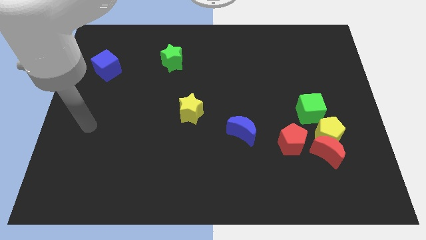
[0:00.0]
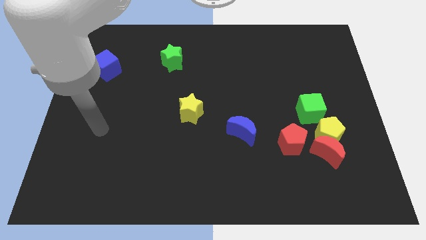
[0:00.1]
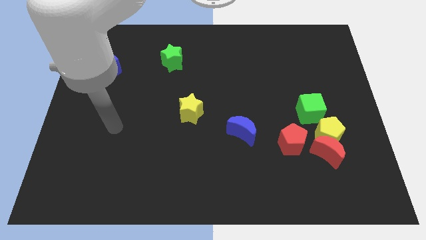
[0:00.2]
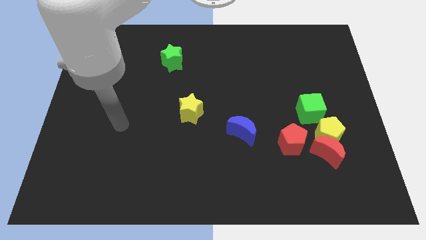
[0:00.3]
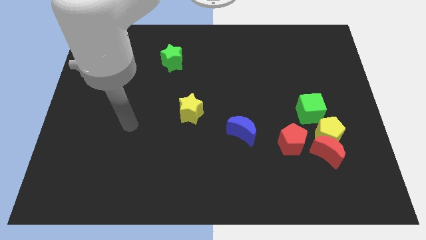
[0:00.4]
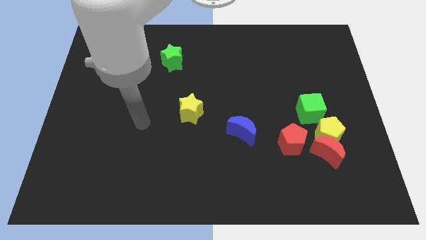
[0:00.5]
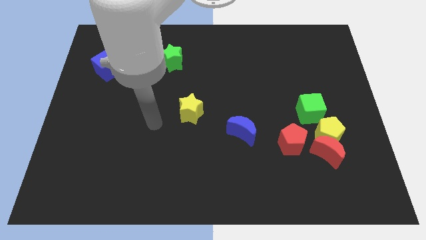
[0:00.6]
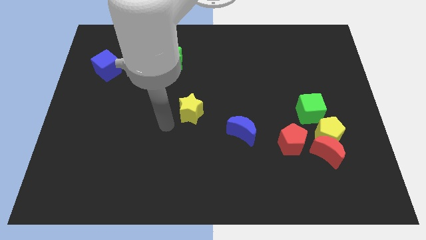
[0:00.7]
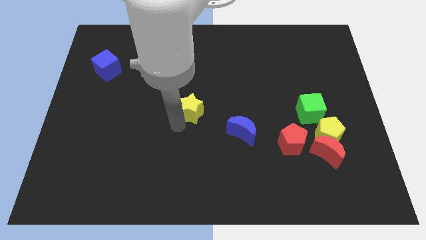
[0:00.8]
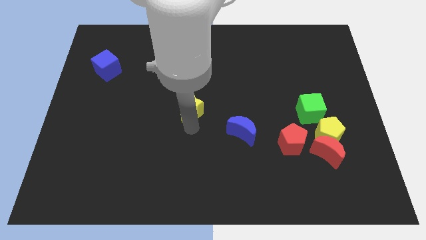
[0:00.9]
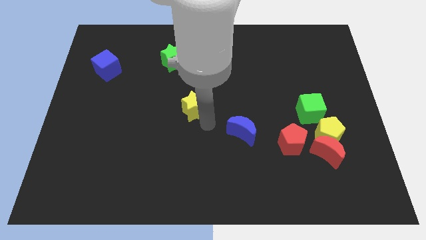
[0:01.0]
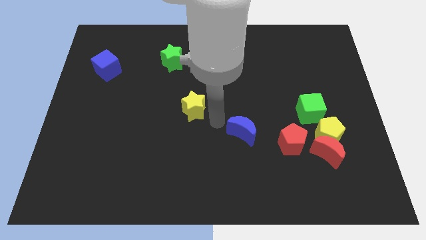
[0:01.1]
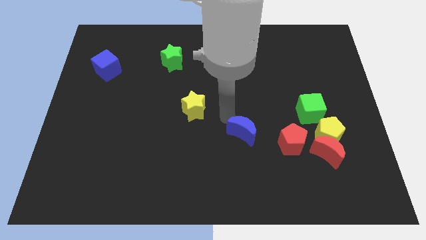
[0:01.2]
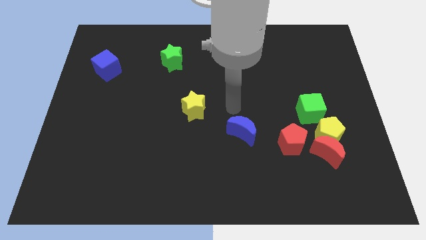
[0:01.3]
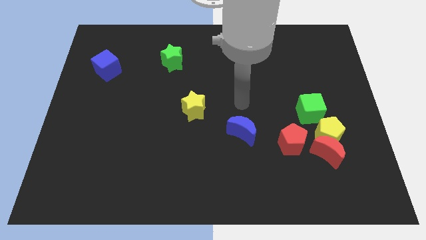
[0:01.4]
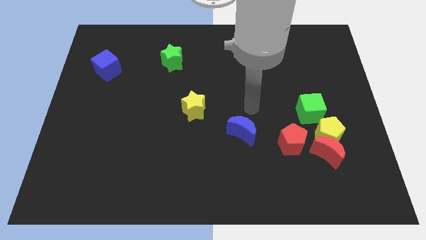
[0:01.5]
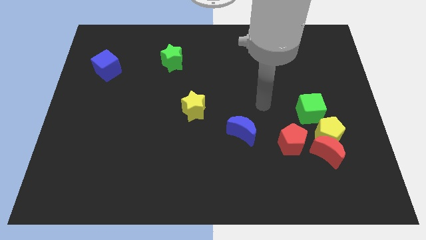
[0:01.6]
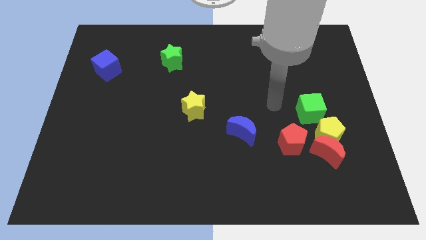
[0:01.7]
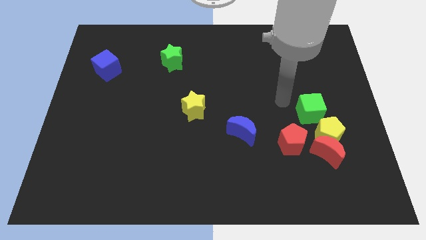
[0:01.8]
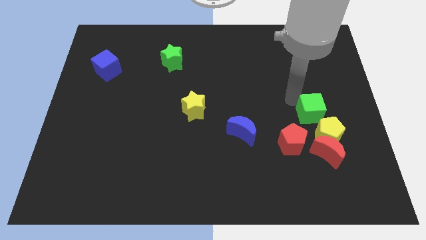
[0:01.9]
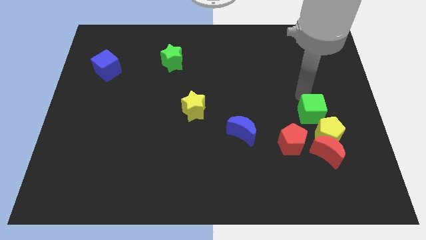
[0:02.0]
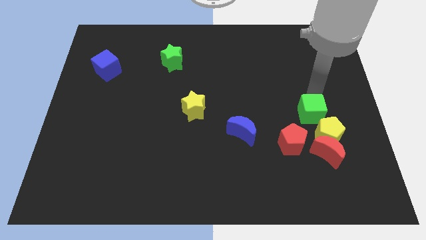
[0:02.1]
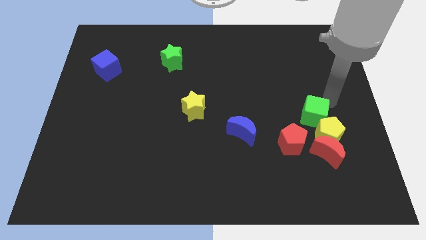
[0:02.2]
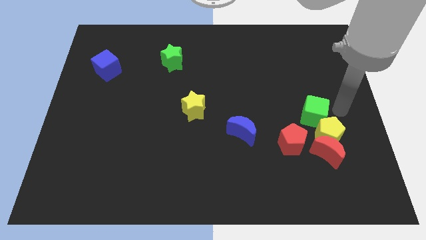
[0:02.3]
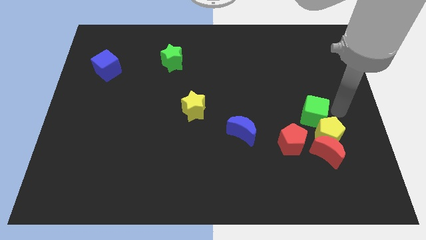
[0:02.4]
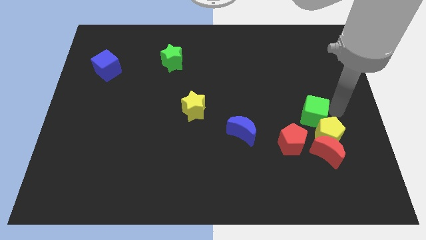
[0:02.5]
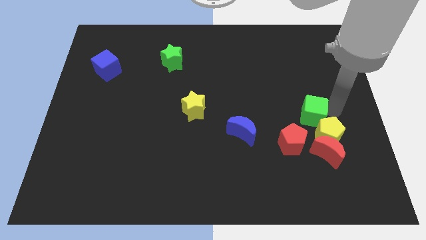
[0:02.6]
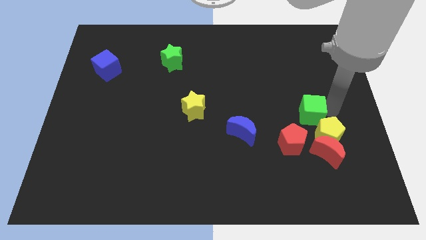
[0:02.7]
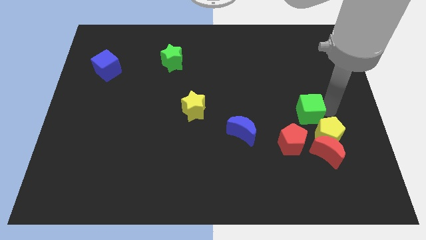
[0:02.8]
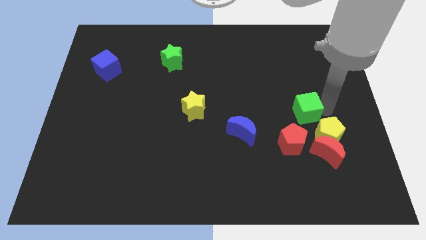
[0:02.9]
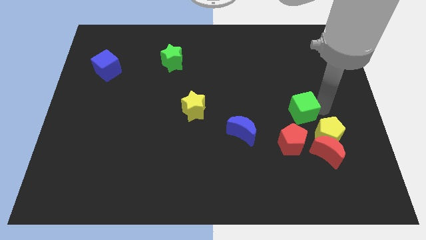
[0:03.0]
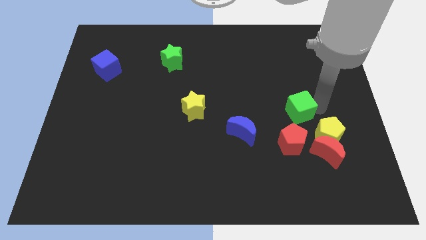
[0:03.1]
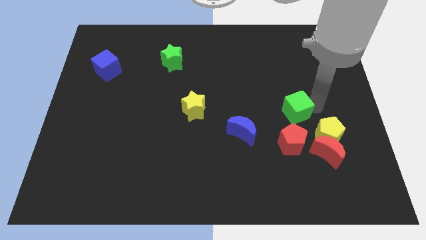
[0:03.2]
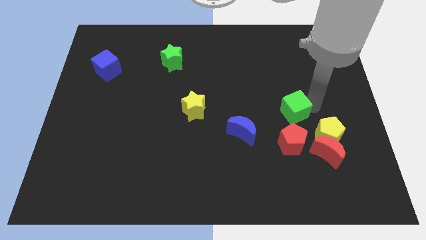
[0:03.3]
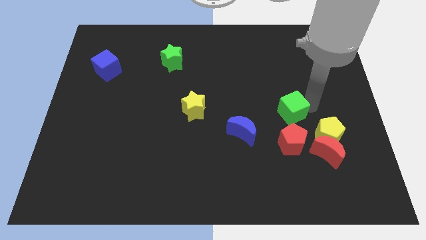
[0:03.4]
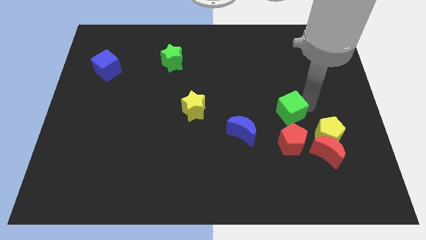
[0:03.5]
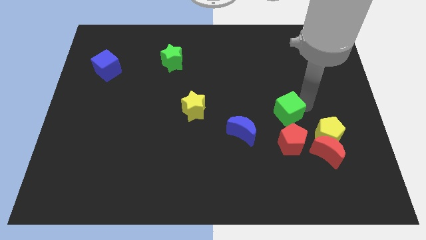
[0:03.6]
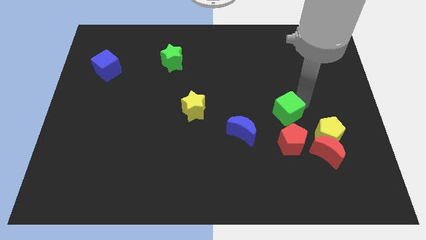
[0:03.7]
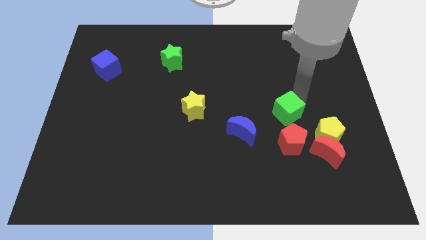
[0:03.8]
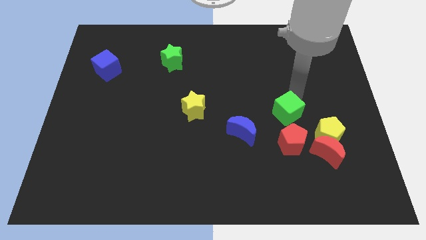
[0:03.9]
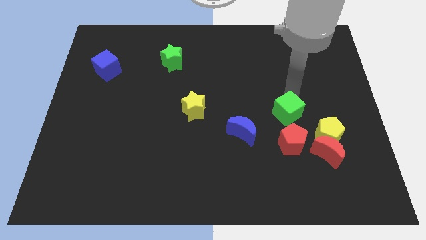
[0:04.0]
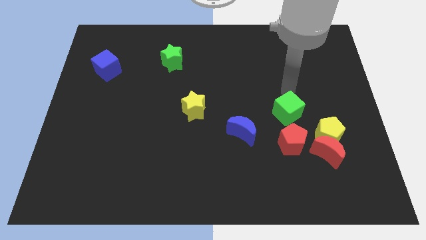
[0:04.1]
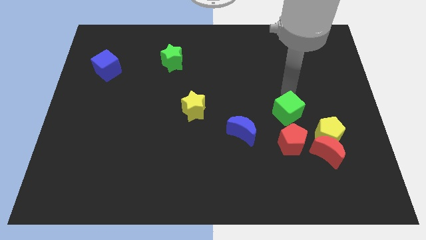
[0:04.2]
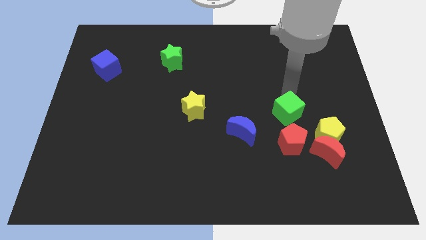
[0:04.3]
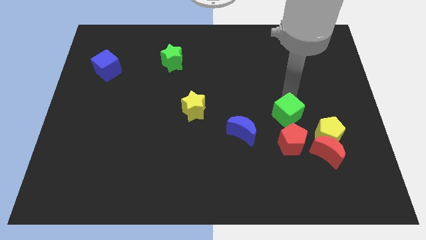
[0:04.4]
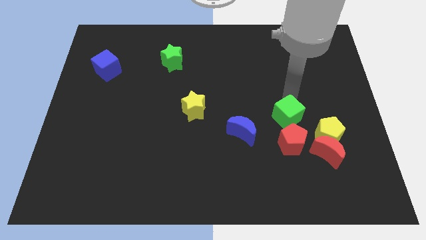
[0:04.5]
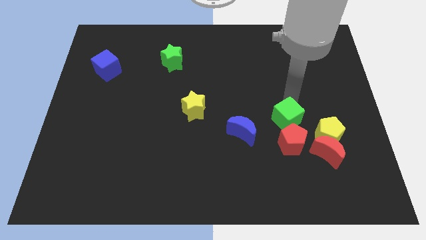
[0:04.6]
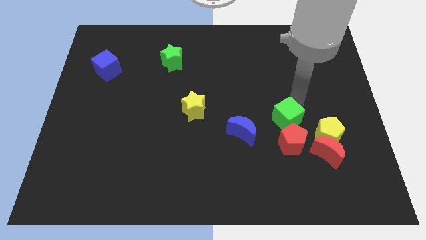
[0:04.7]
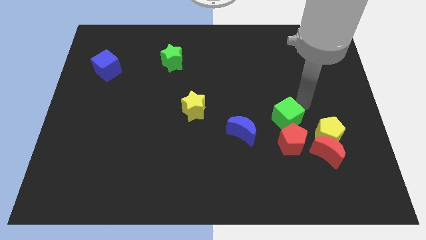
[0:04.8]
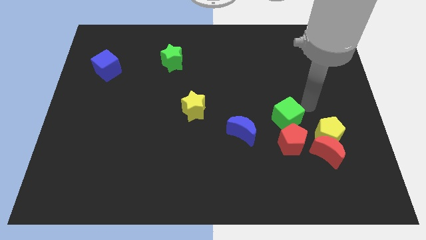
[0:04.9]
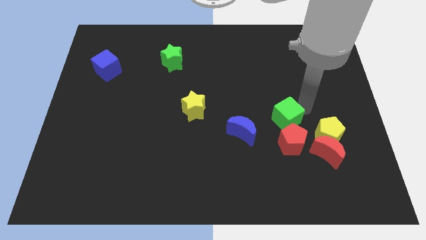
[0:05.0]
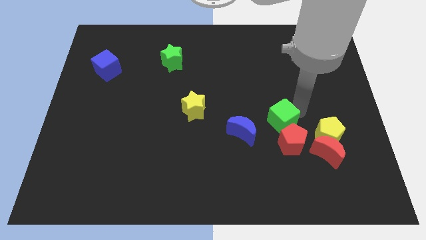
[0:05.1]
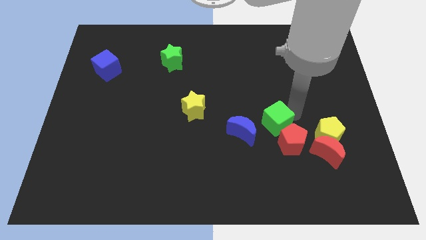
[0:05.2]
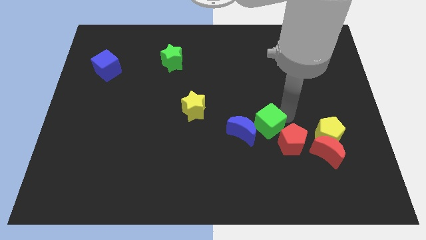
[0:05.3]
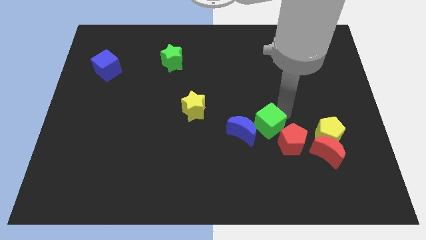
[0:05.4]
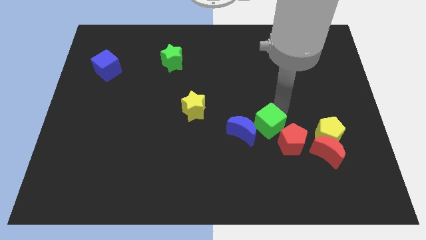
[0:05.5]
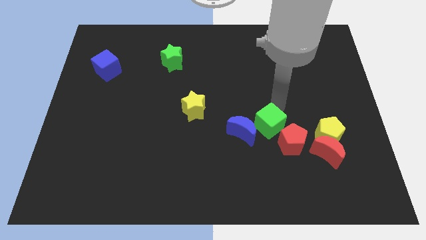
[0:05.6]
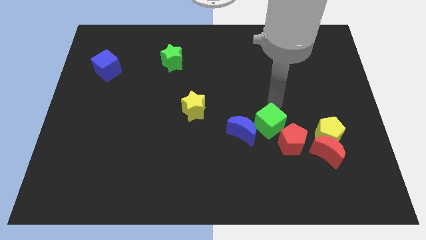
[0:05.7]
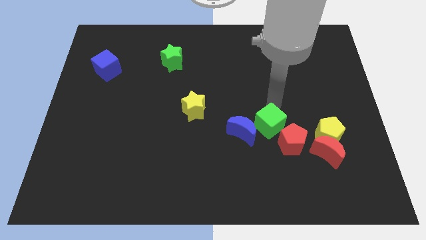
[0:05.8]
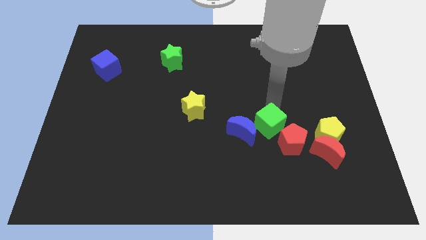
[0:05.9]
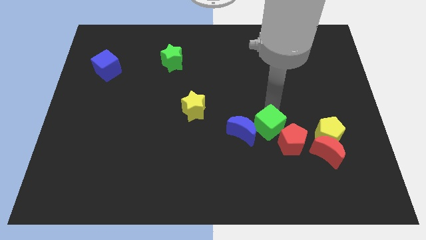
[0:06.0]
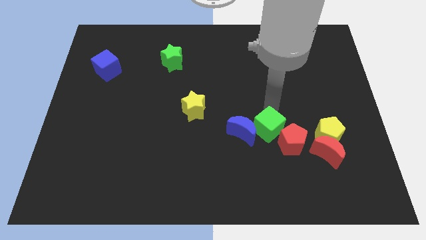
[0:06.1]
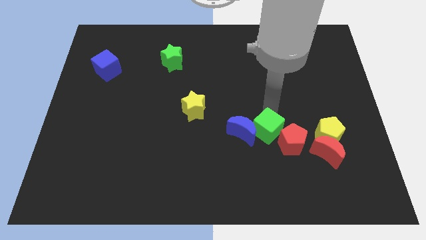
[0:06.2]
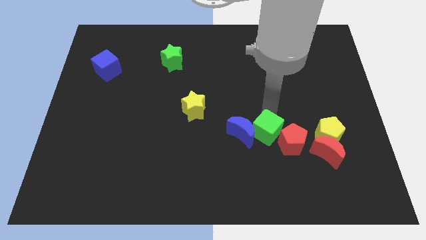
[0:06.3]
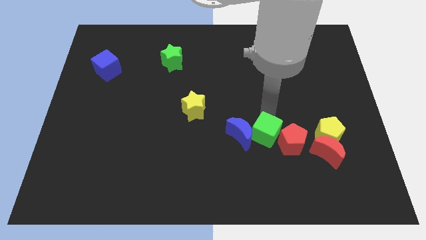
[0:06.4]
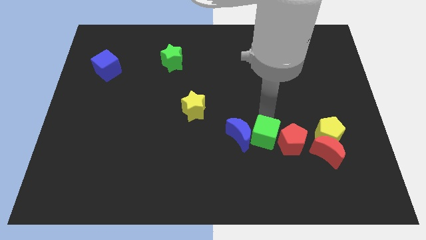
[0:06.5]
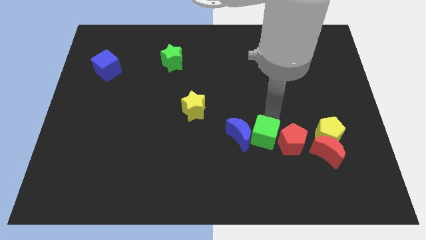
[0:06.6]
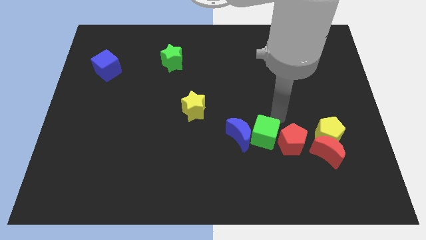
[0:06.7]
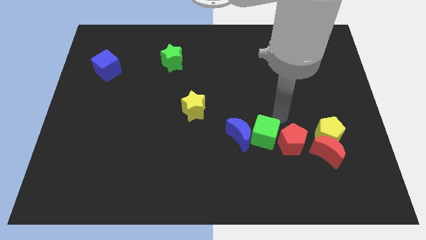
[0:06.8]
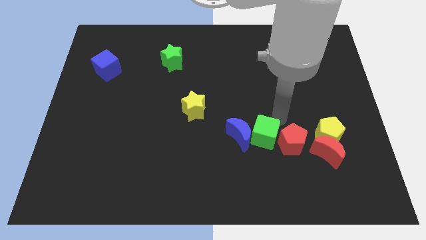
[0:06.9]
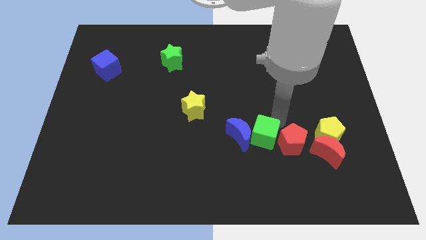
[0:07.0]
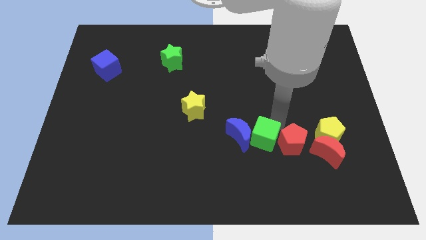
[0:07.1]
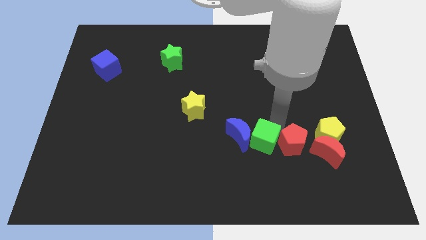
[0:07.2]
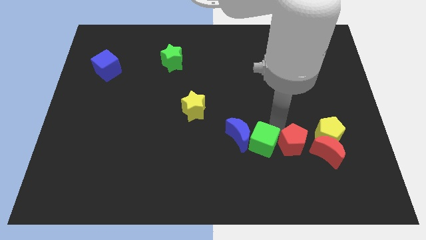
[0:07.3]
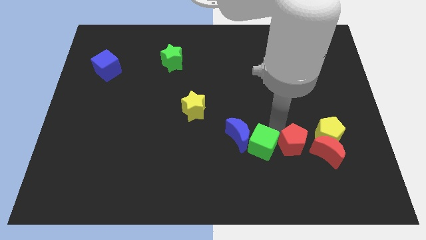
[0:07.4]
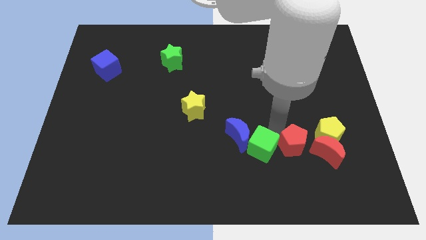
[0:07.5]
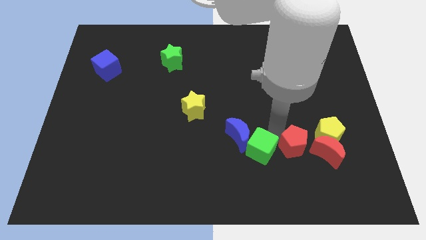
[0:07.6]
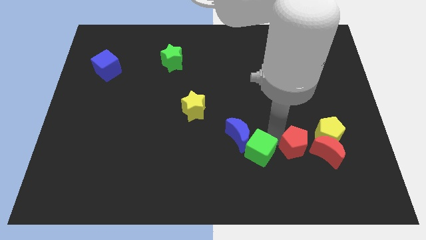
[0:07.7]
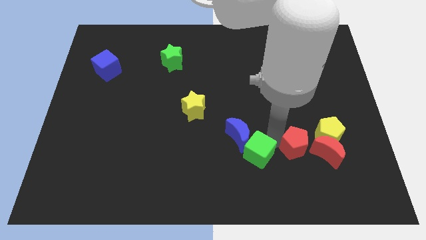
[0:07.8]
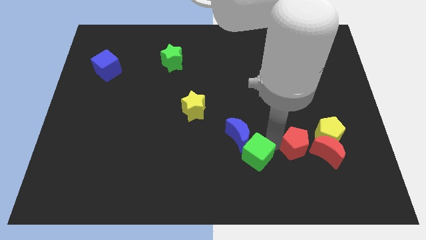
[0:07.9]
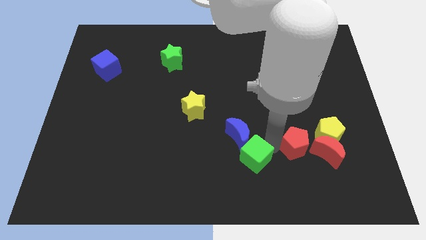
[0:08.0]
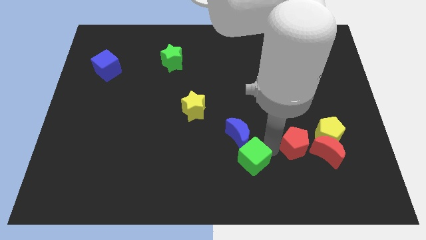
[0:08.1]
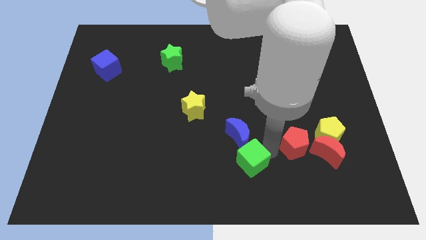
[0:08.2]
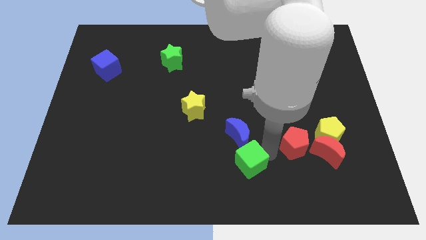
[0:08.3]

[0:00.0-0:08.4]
slide the green cube to the bottom
